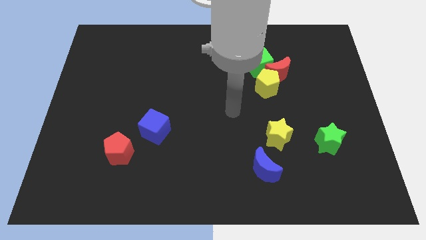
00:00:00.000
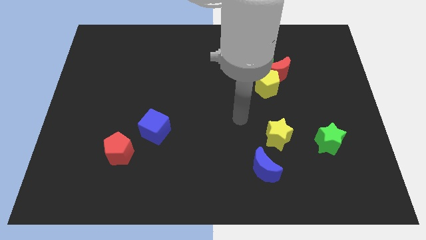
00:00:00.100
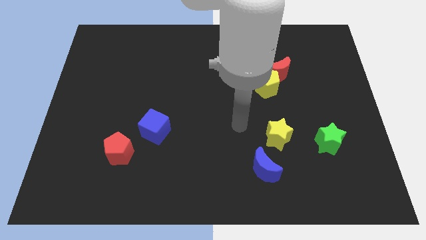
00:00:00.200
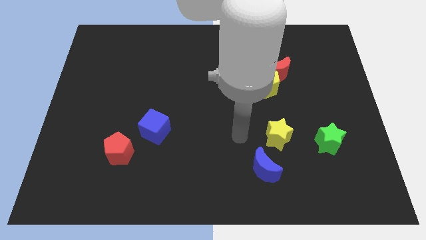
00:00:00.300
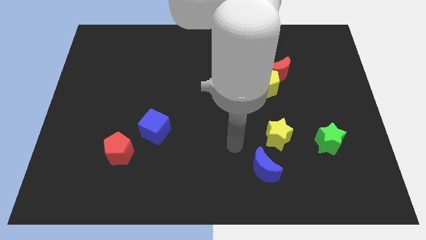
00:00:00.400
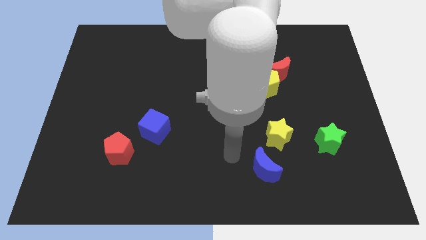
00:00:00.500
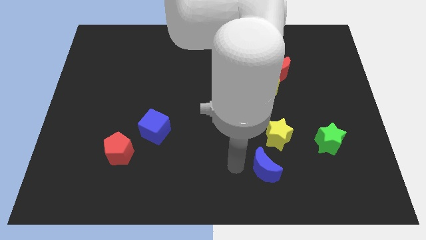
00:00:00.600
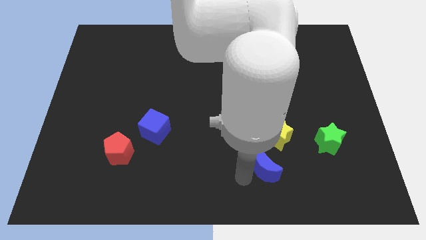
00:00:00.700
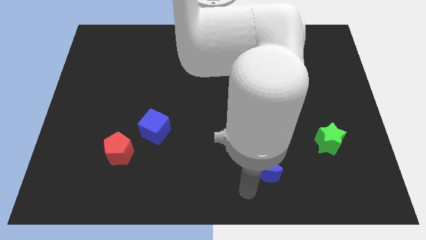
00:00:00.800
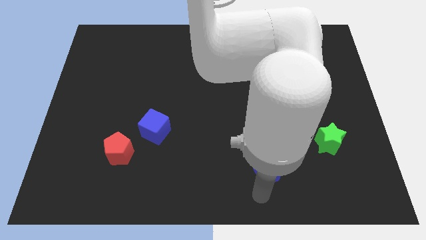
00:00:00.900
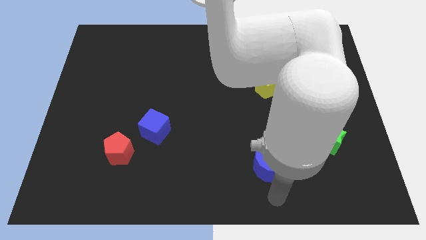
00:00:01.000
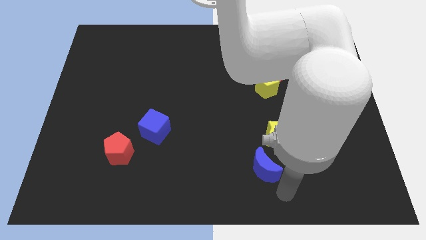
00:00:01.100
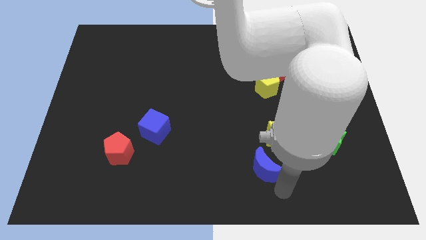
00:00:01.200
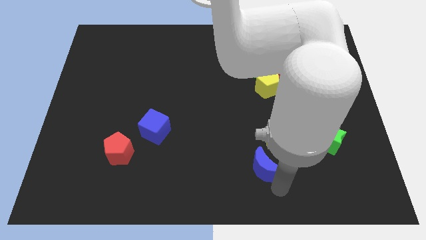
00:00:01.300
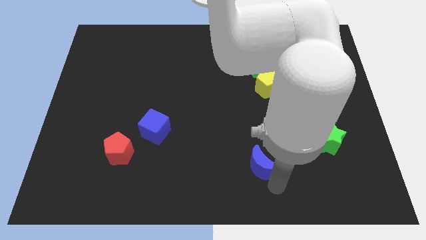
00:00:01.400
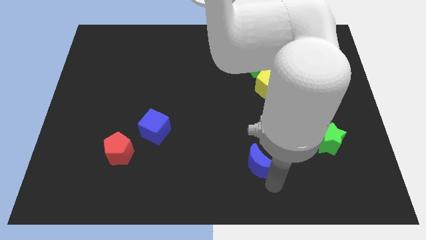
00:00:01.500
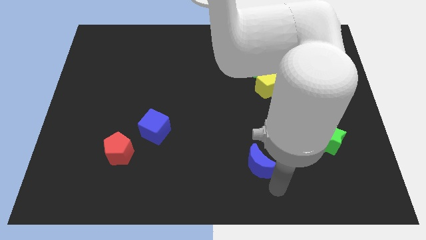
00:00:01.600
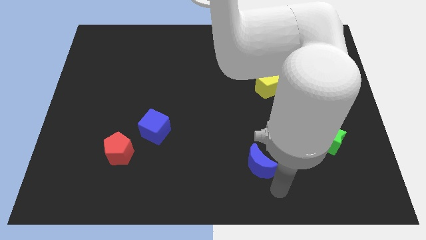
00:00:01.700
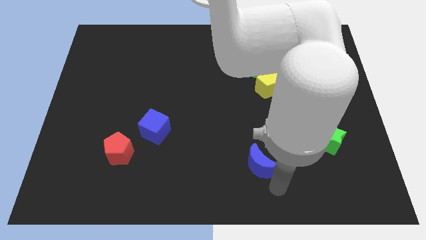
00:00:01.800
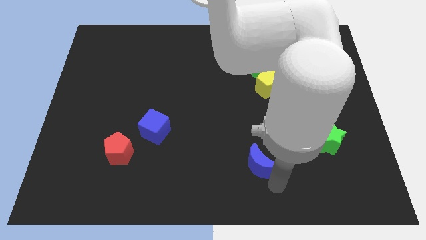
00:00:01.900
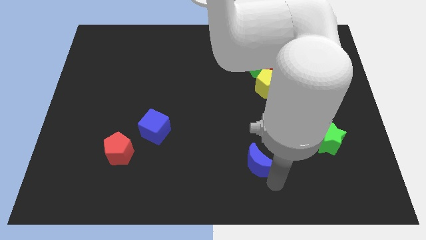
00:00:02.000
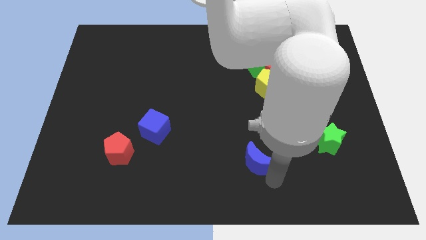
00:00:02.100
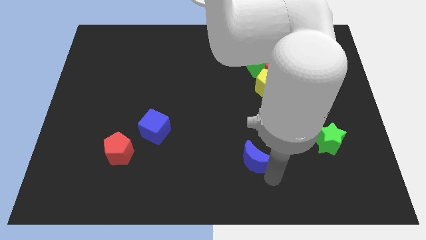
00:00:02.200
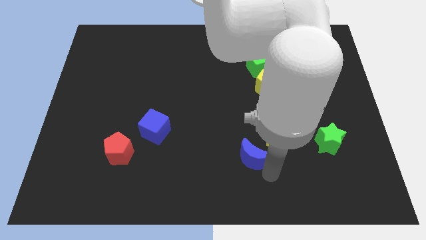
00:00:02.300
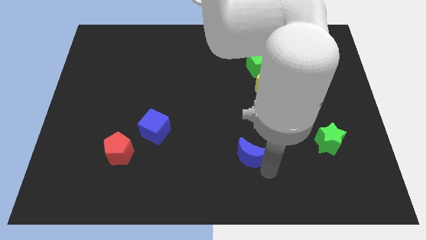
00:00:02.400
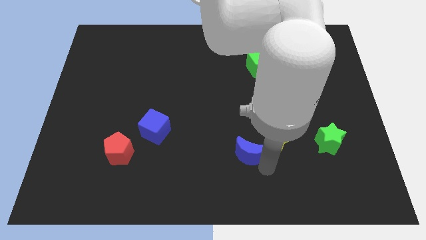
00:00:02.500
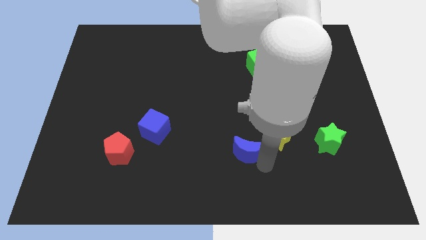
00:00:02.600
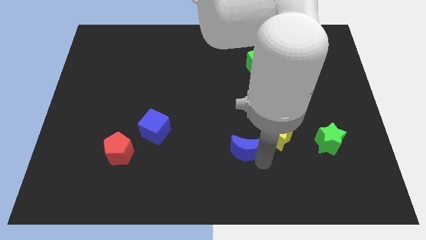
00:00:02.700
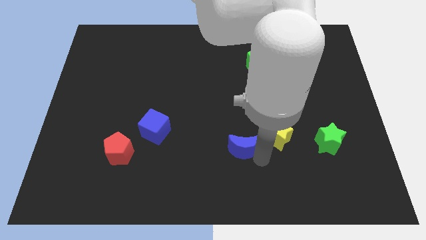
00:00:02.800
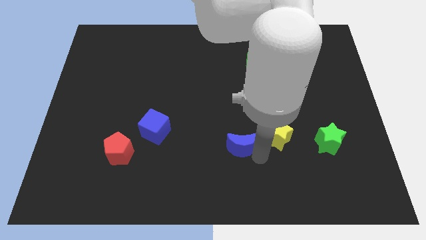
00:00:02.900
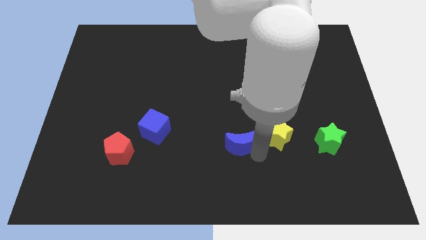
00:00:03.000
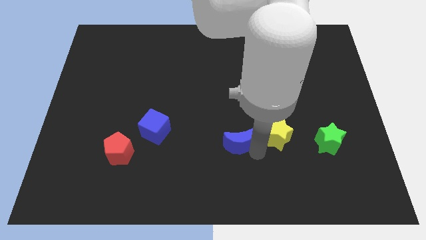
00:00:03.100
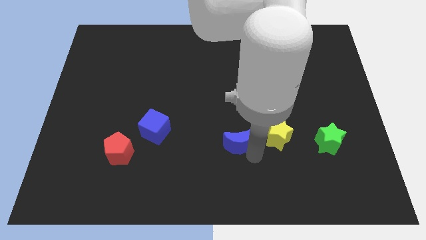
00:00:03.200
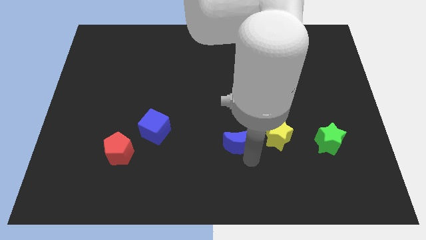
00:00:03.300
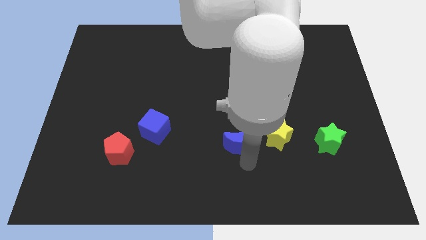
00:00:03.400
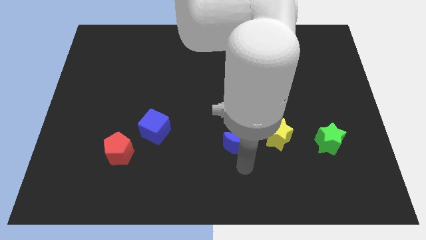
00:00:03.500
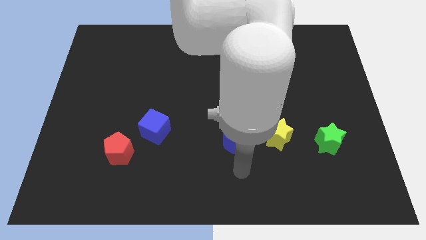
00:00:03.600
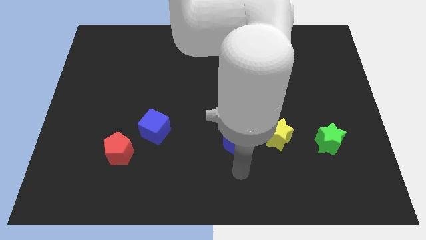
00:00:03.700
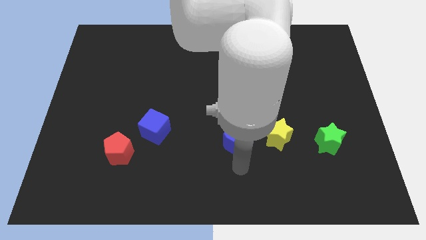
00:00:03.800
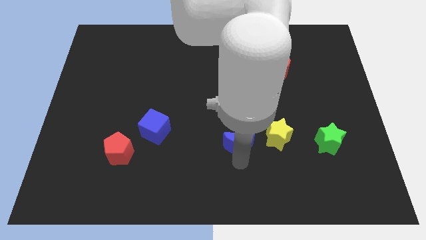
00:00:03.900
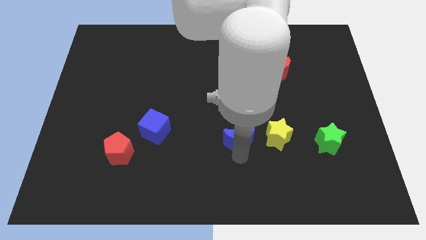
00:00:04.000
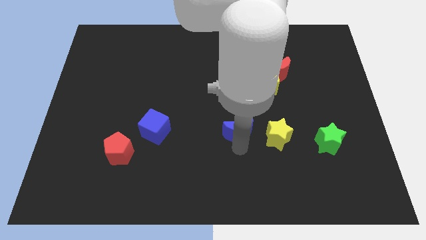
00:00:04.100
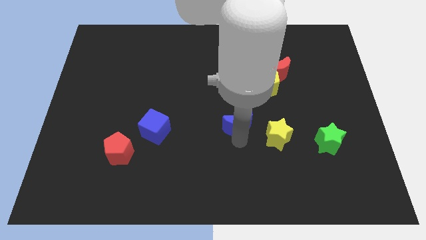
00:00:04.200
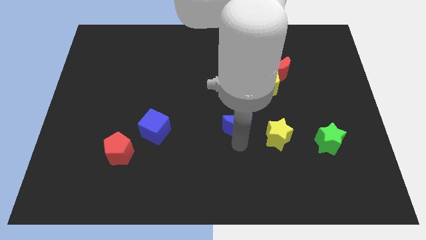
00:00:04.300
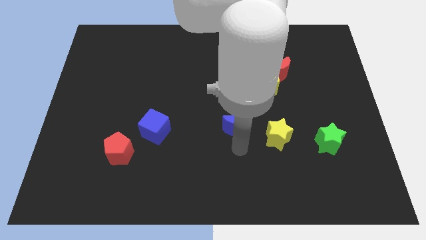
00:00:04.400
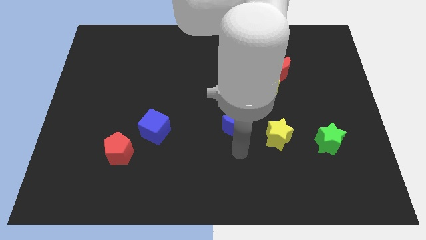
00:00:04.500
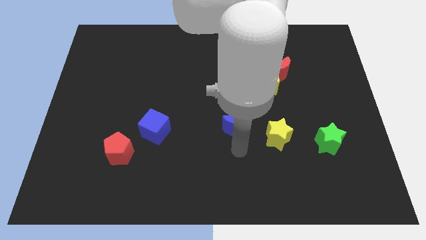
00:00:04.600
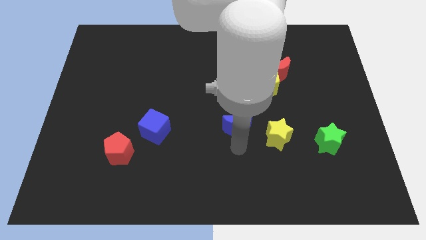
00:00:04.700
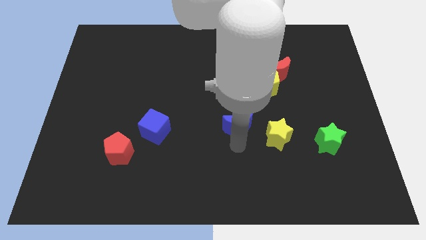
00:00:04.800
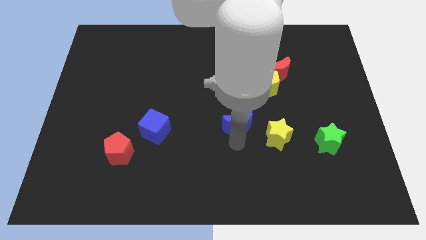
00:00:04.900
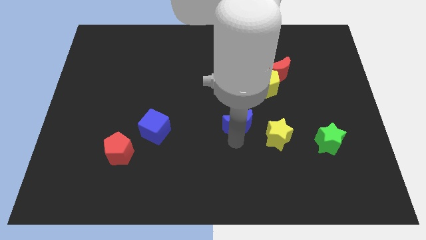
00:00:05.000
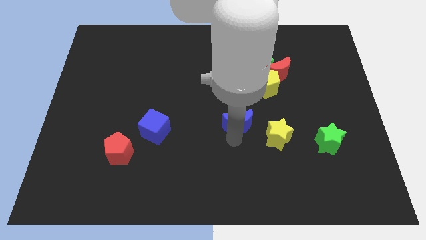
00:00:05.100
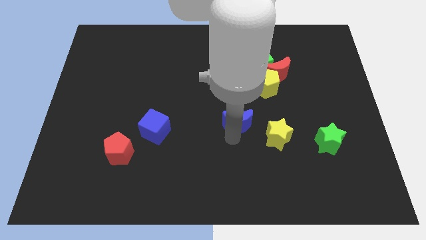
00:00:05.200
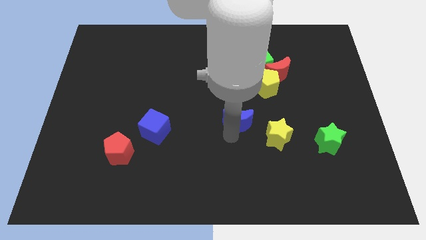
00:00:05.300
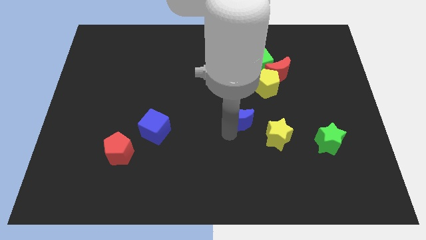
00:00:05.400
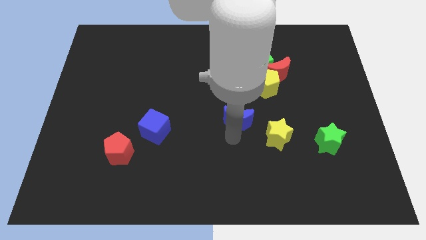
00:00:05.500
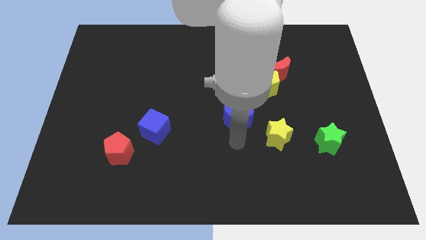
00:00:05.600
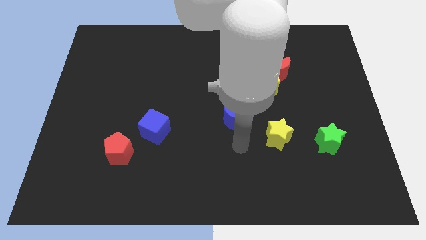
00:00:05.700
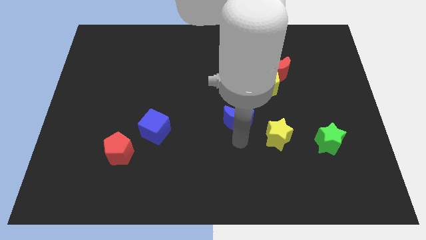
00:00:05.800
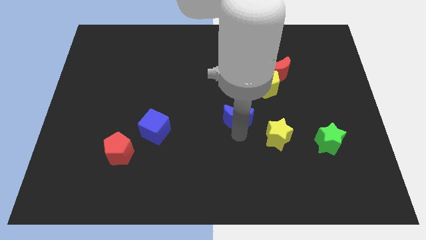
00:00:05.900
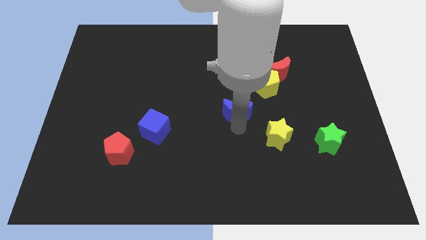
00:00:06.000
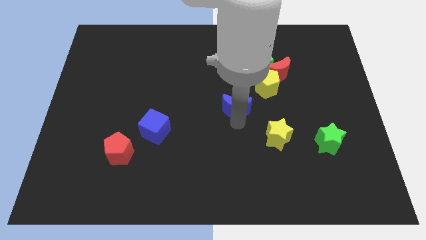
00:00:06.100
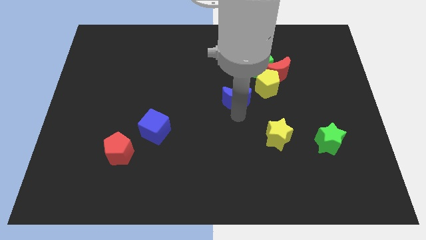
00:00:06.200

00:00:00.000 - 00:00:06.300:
move the blue moon left of the yellow pentagon

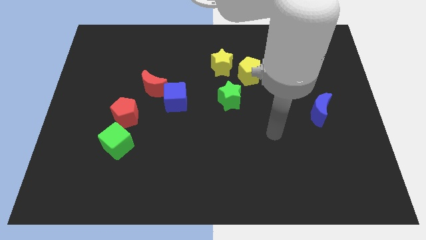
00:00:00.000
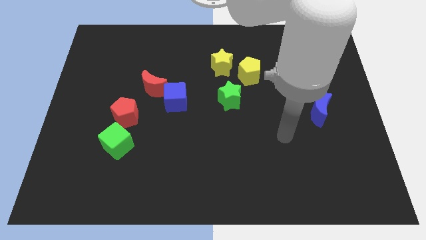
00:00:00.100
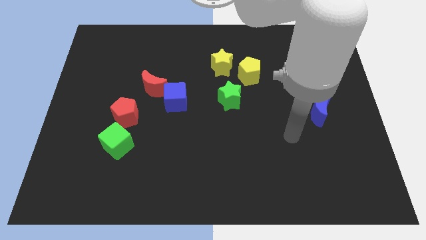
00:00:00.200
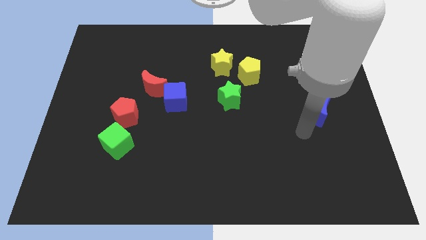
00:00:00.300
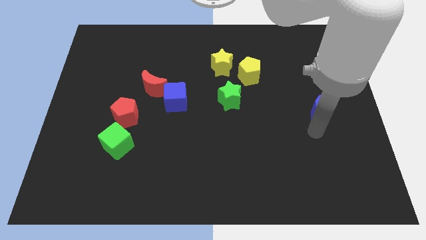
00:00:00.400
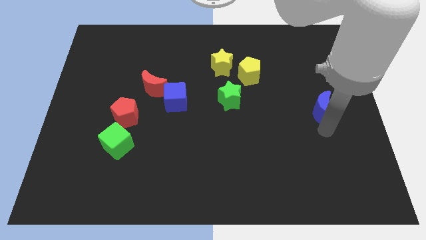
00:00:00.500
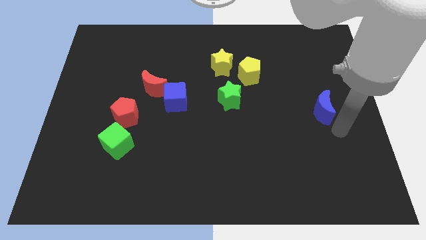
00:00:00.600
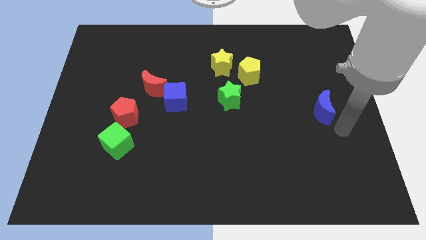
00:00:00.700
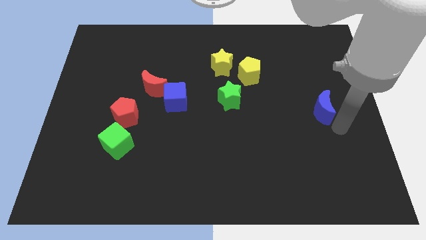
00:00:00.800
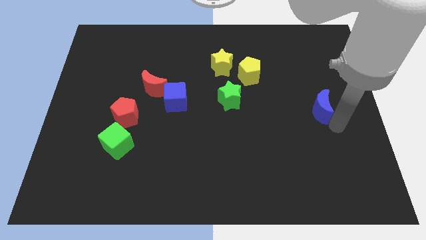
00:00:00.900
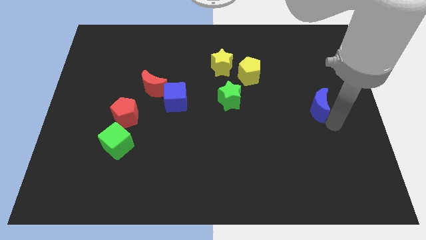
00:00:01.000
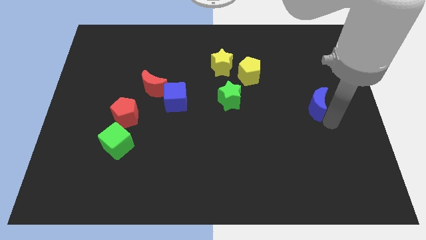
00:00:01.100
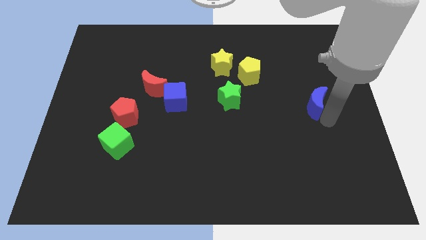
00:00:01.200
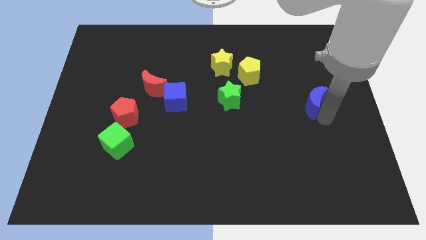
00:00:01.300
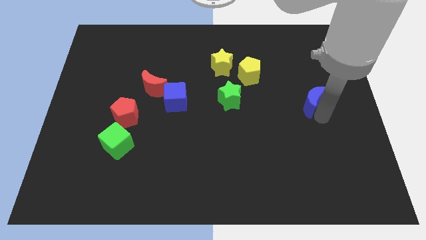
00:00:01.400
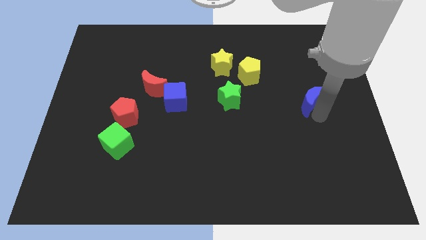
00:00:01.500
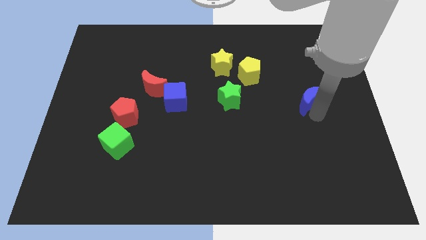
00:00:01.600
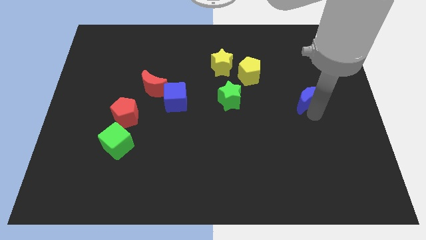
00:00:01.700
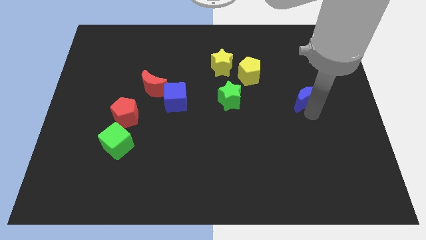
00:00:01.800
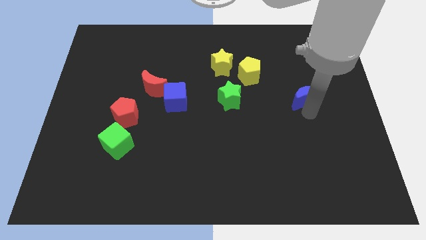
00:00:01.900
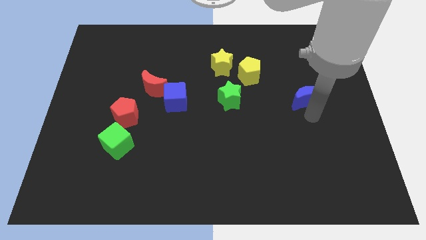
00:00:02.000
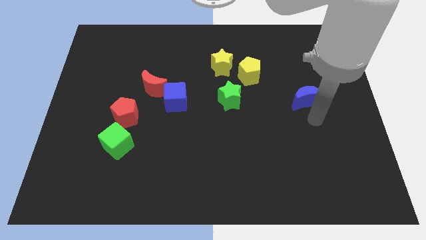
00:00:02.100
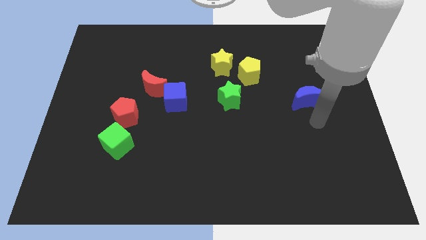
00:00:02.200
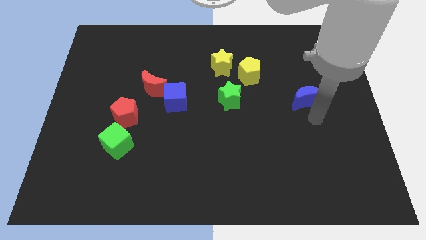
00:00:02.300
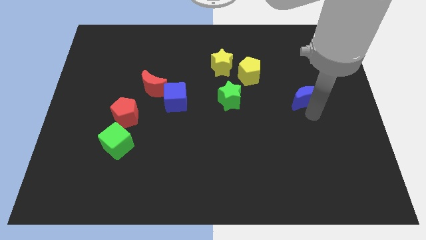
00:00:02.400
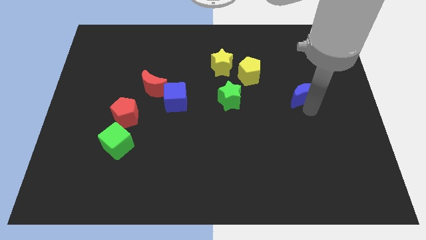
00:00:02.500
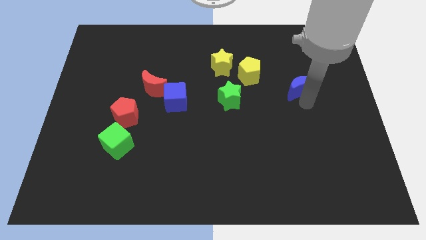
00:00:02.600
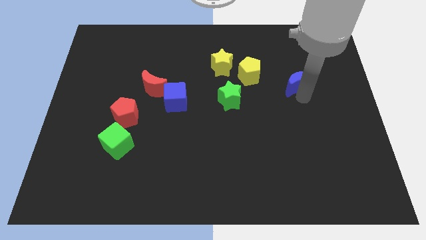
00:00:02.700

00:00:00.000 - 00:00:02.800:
slide the blue moon right of the yellow pentagon
